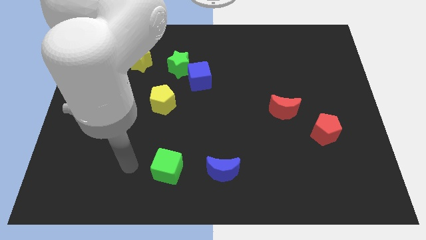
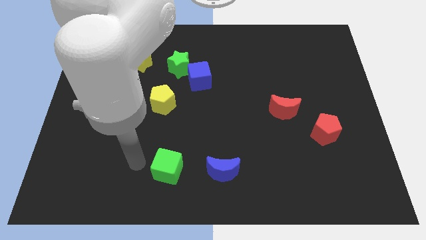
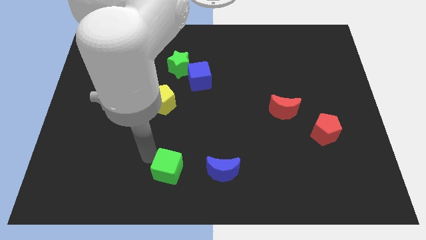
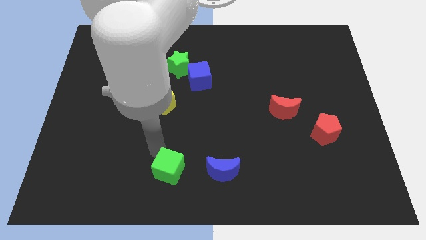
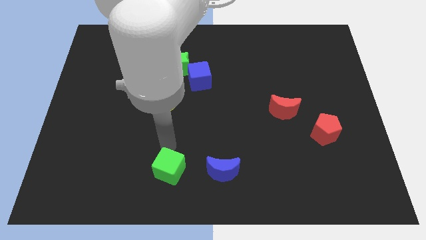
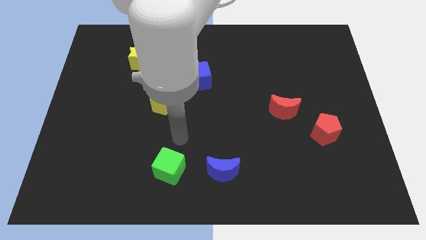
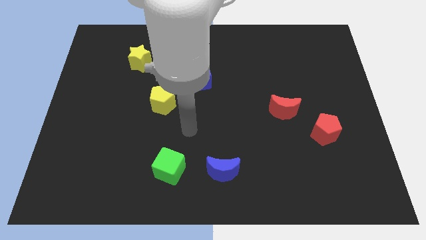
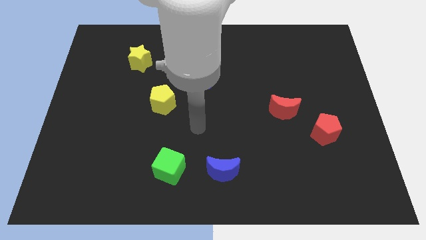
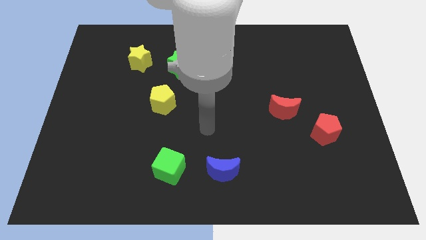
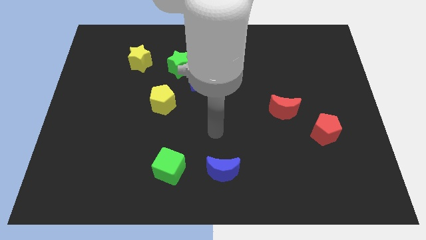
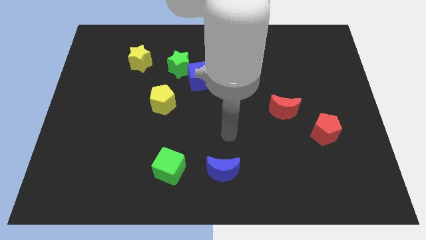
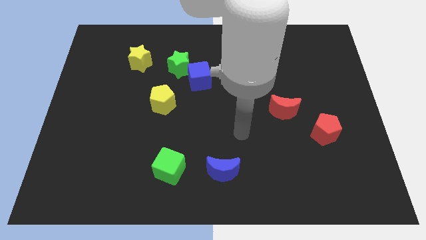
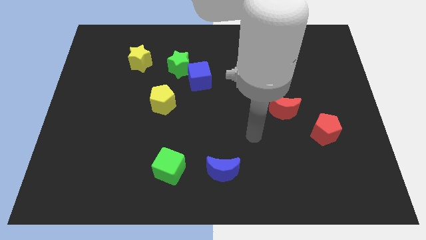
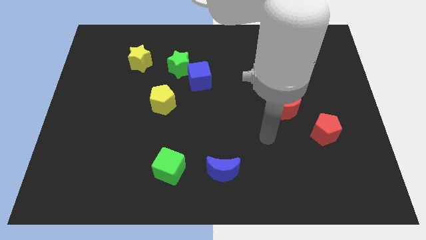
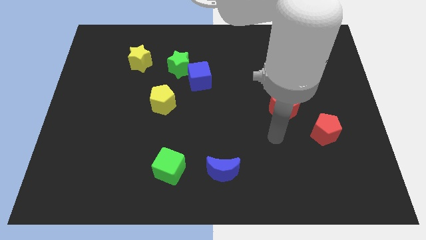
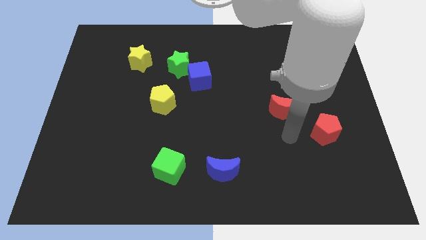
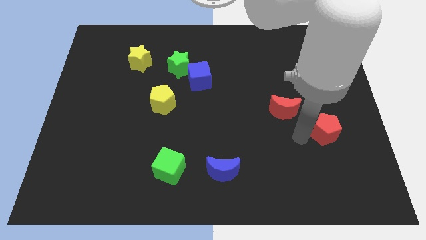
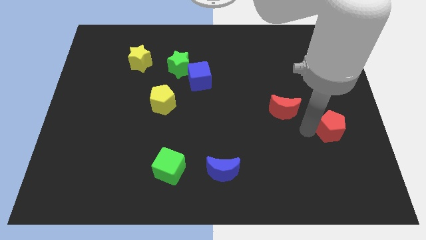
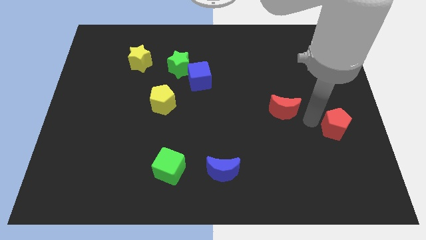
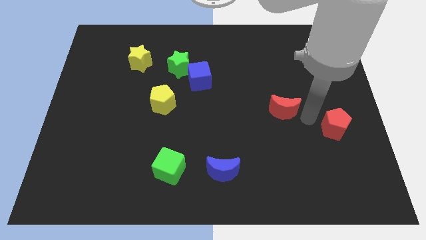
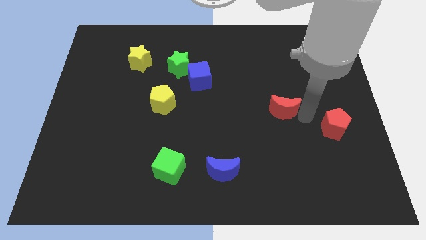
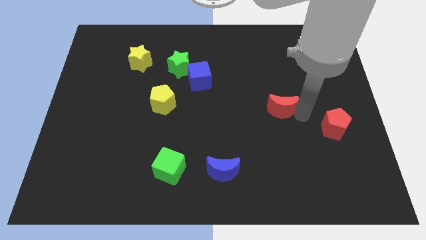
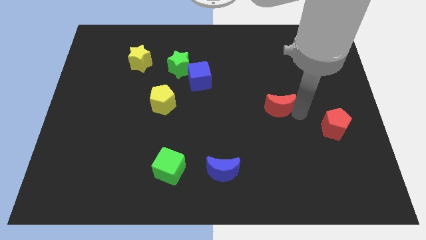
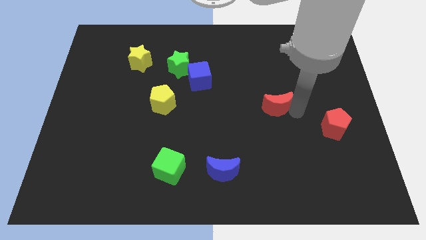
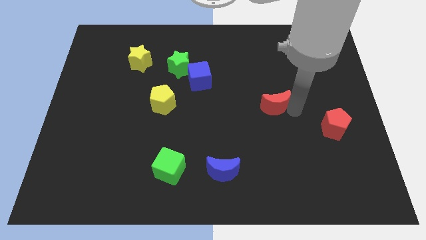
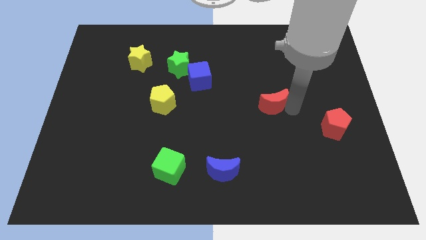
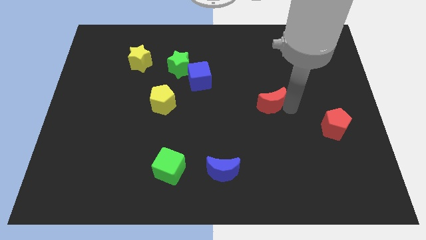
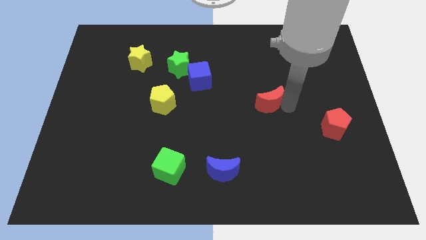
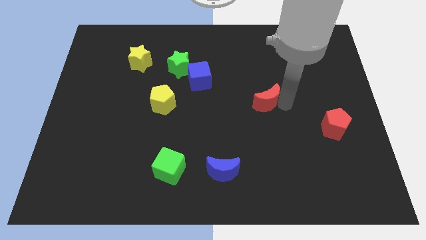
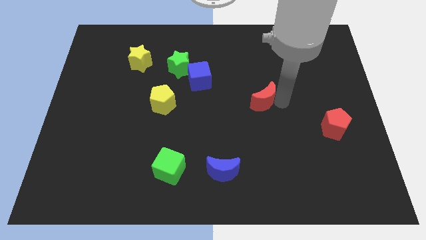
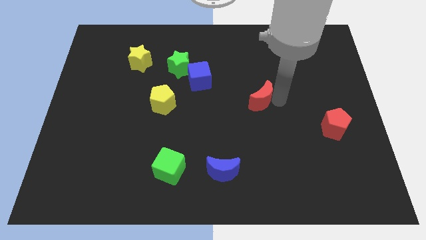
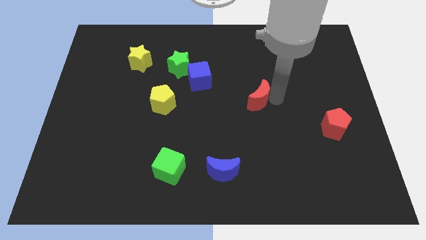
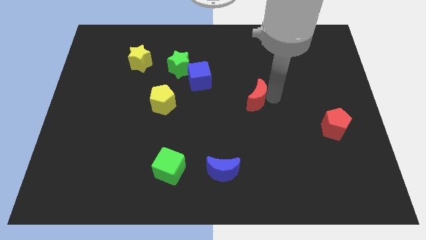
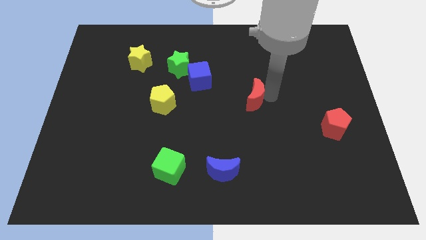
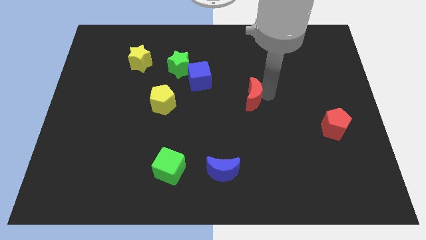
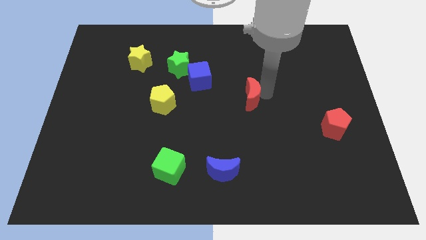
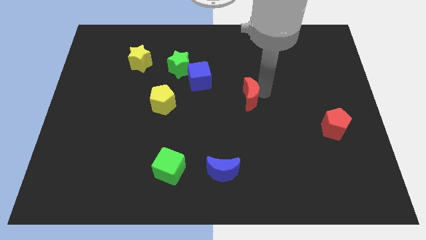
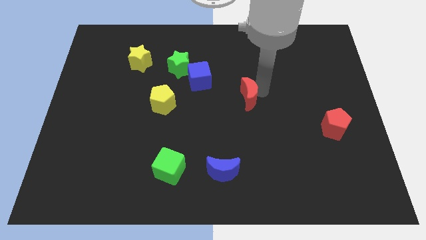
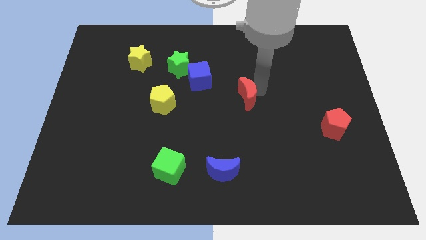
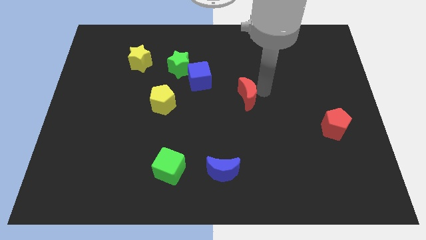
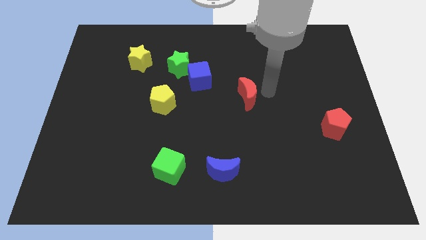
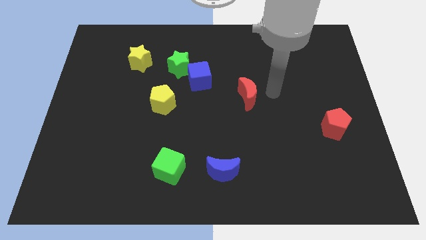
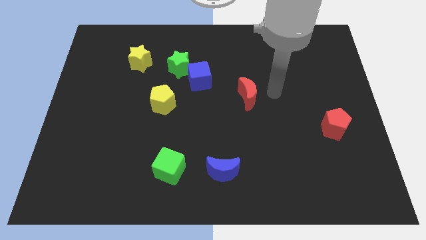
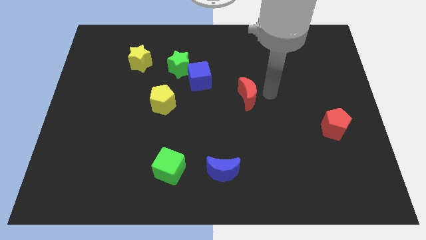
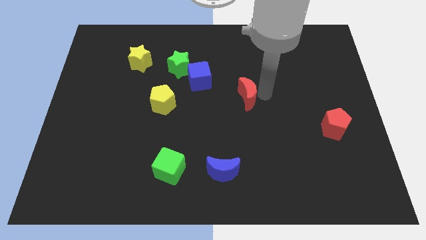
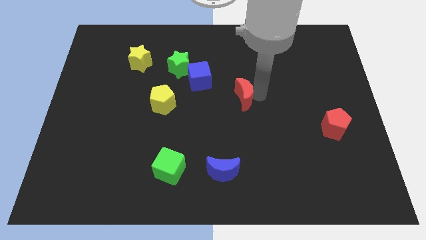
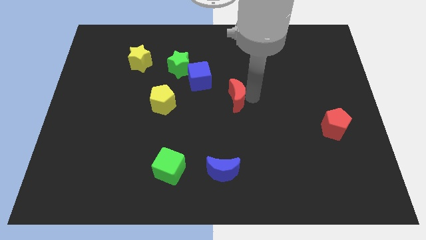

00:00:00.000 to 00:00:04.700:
put the red moon to the bottom right side of the blue cube

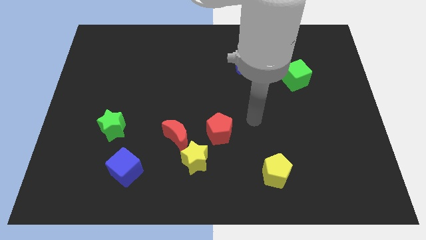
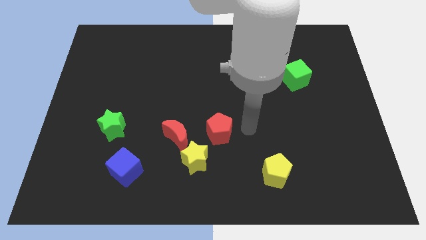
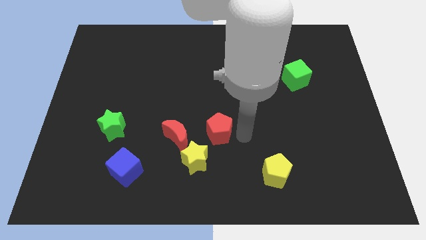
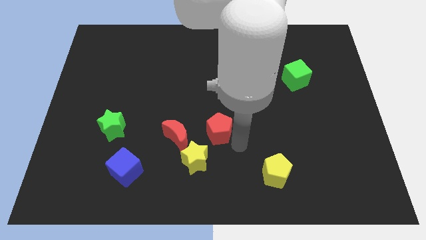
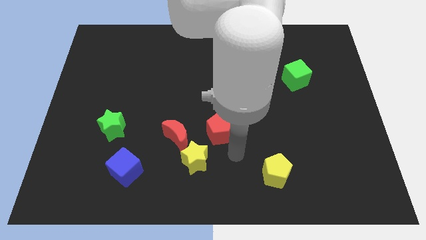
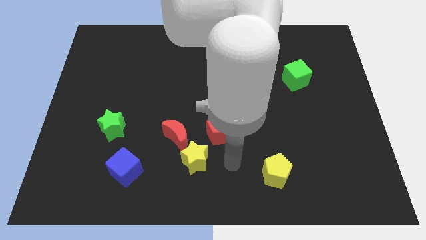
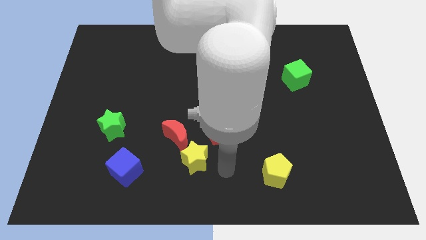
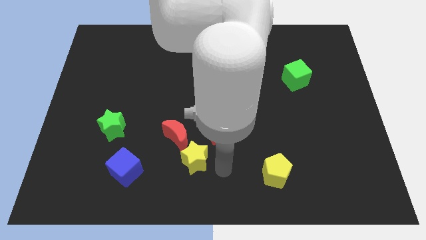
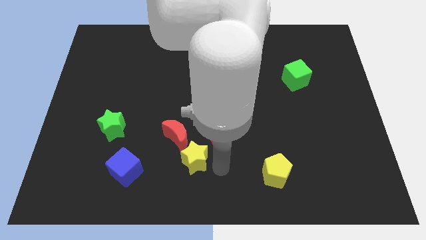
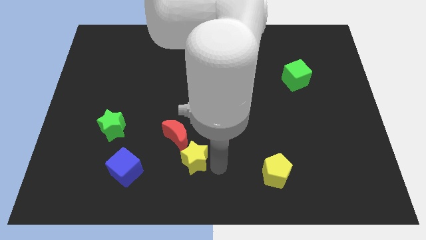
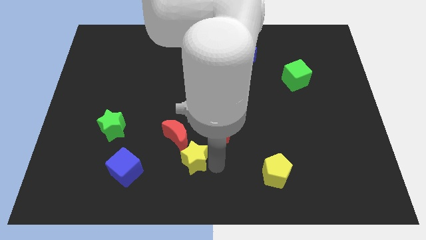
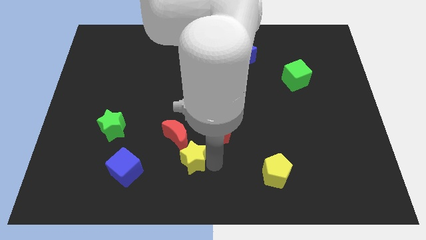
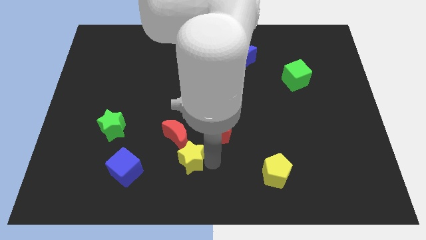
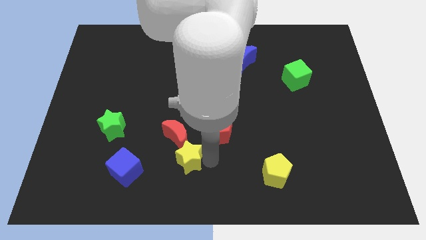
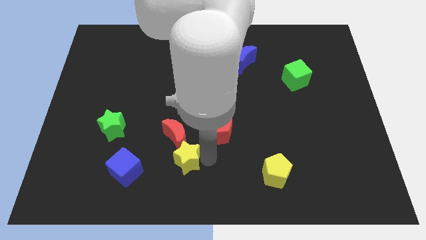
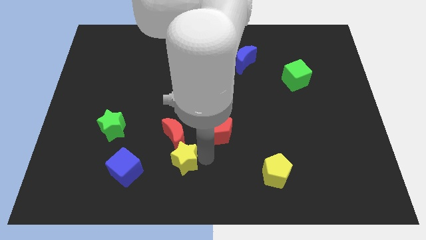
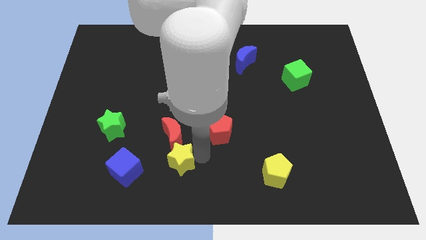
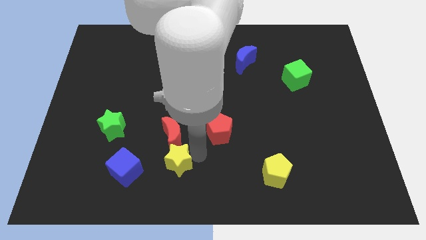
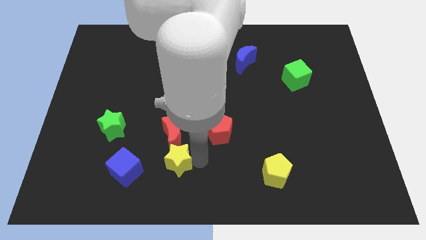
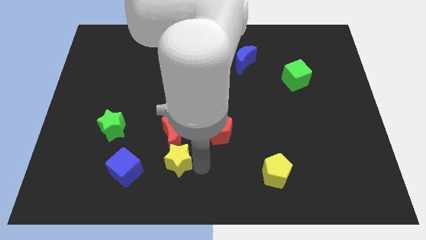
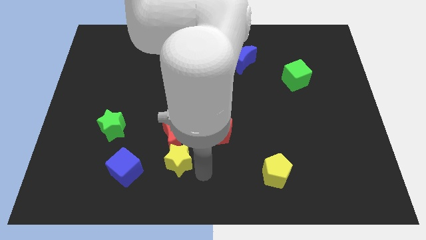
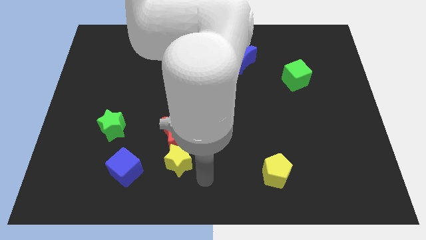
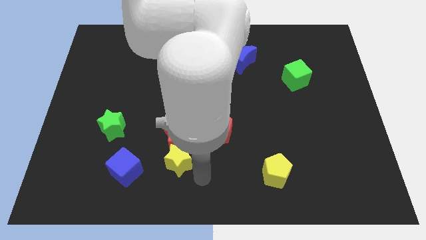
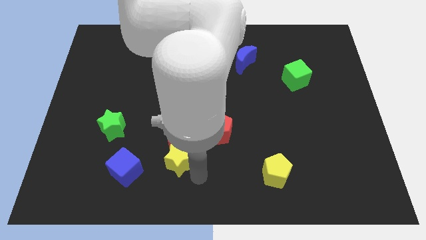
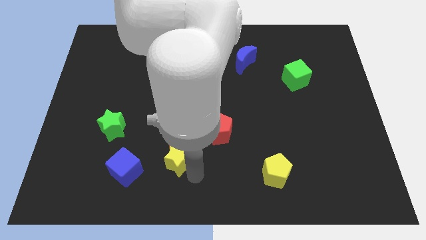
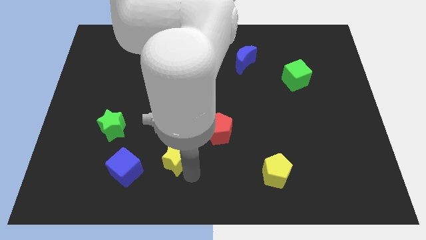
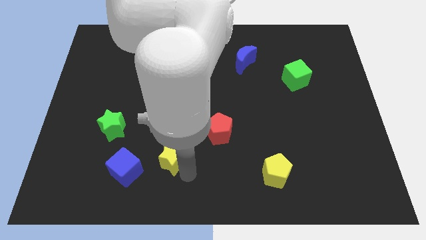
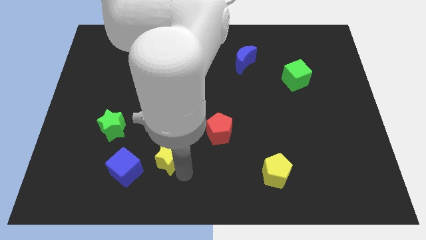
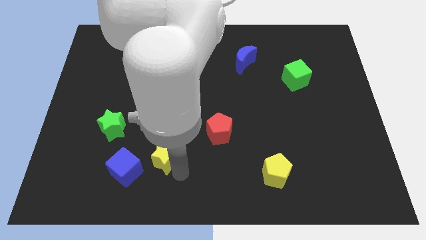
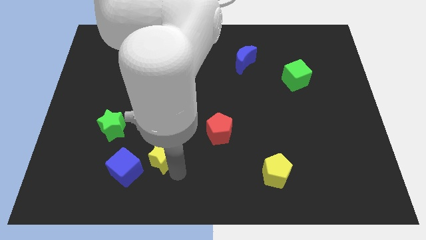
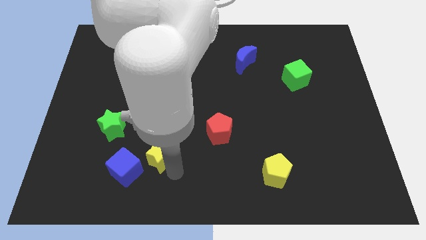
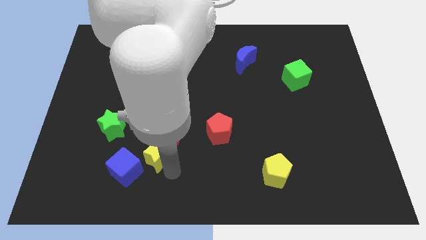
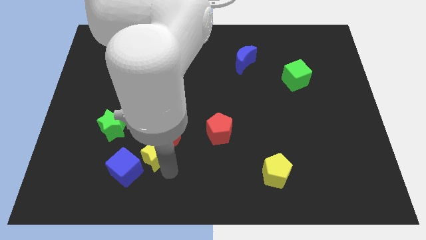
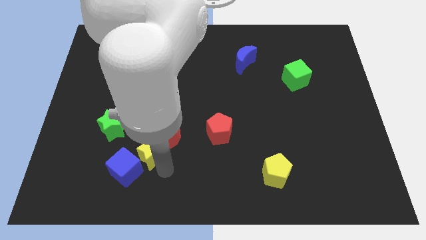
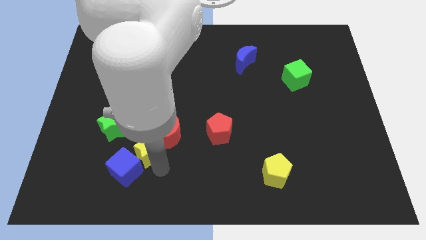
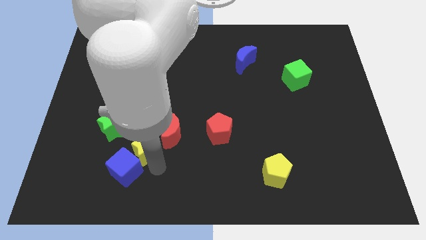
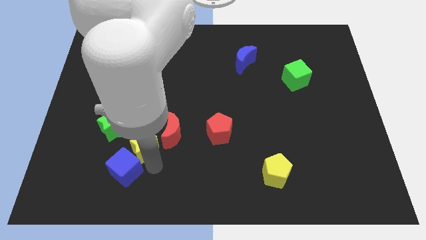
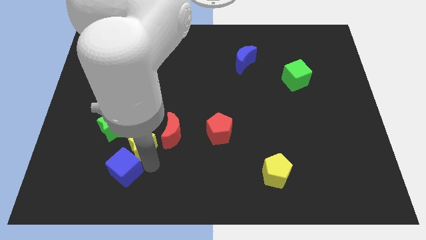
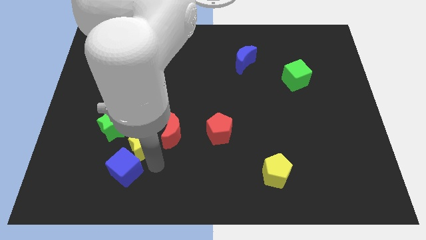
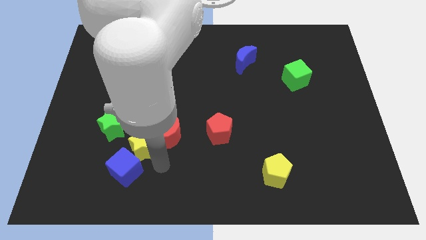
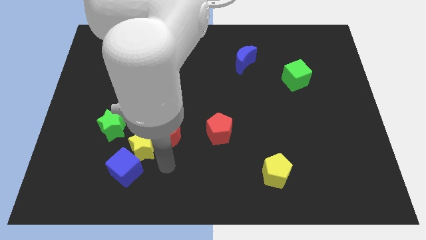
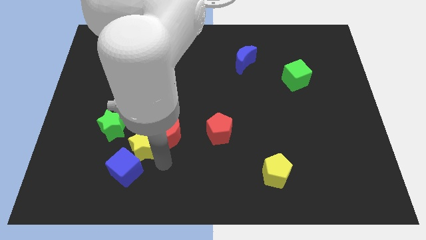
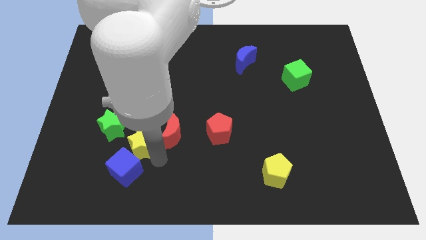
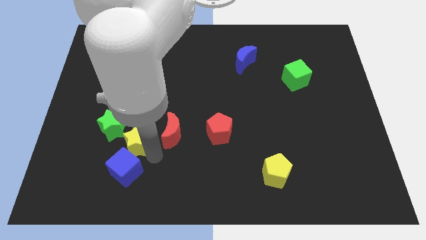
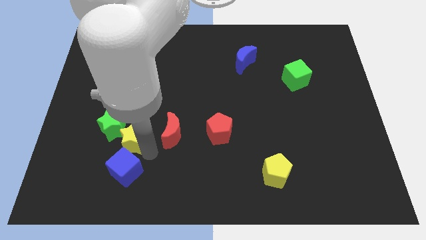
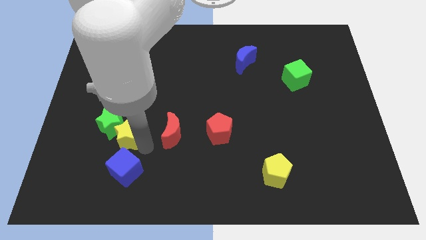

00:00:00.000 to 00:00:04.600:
push the yellow star to the bottom of the green star
